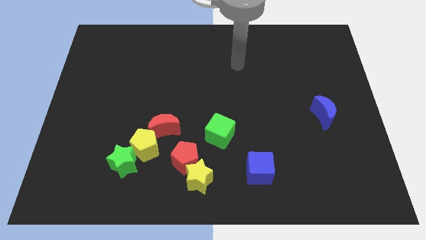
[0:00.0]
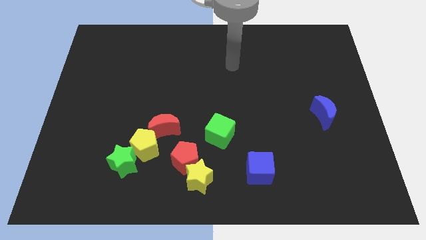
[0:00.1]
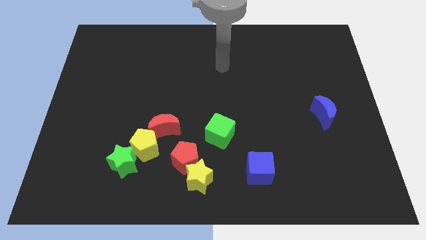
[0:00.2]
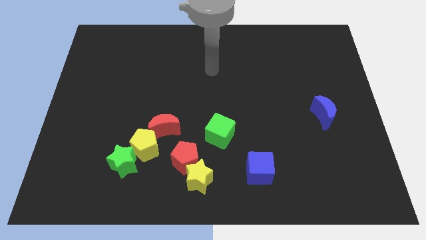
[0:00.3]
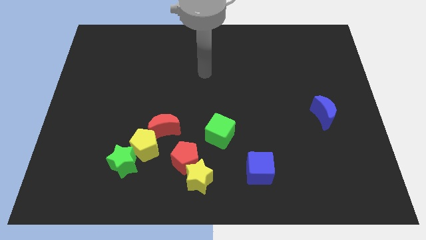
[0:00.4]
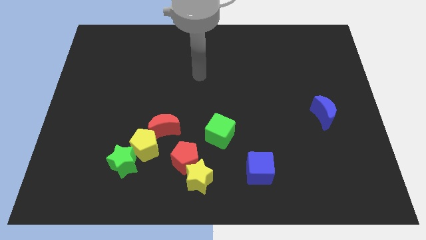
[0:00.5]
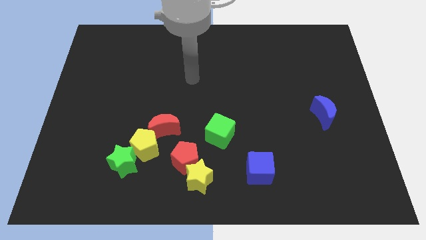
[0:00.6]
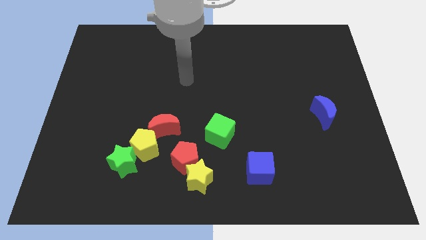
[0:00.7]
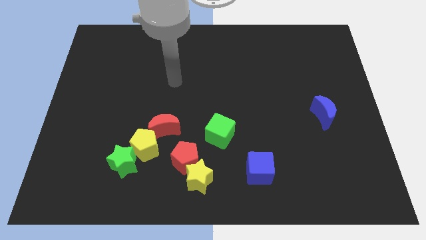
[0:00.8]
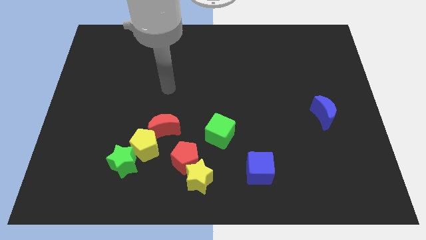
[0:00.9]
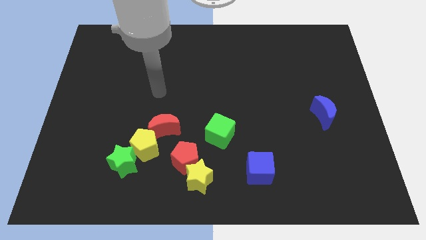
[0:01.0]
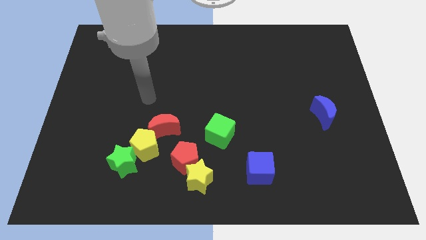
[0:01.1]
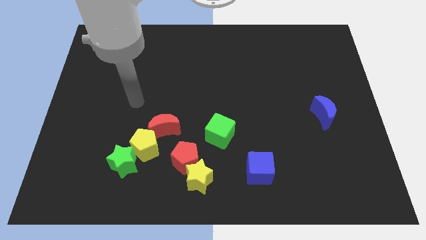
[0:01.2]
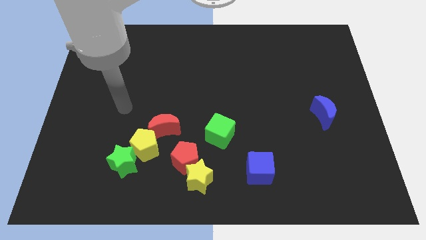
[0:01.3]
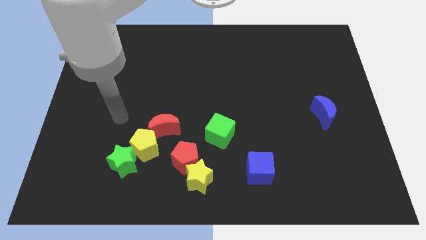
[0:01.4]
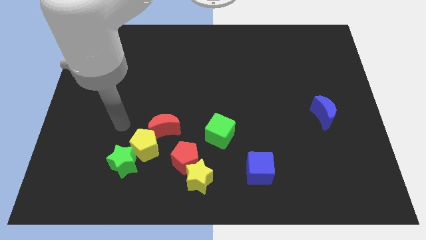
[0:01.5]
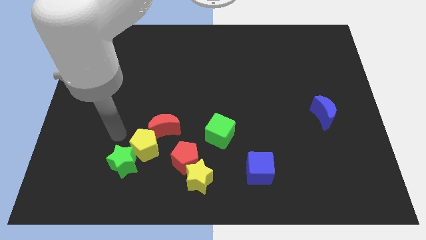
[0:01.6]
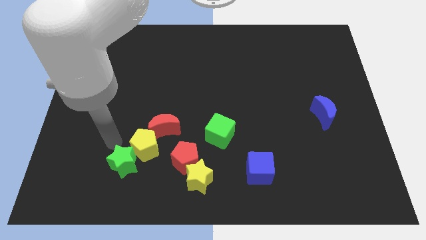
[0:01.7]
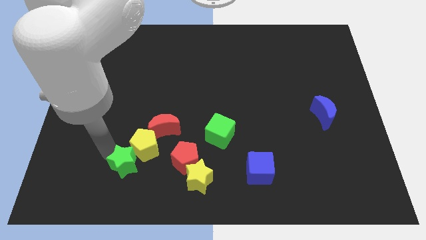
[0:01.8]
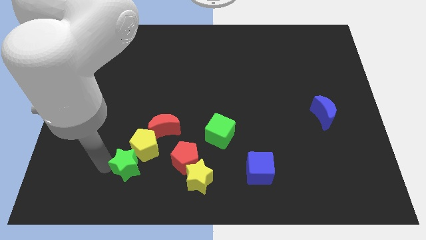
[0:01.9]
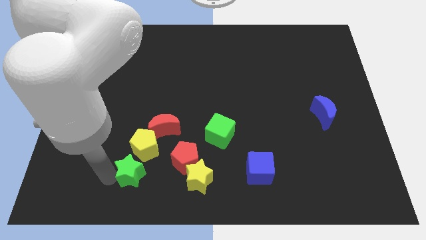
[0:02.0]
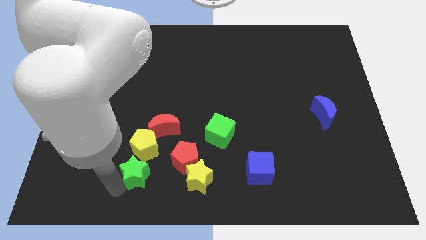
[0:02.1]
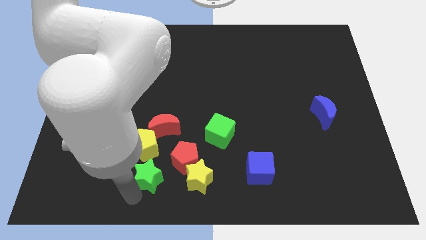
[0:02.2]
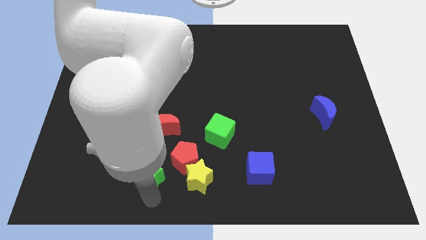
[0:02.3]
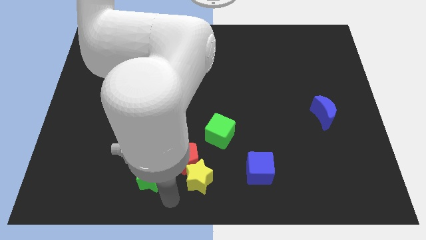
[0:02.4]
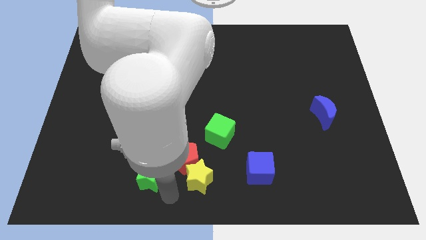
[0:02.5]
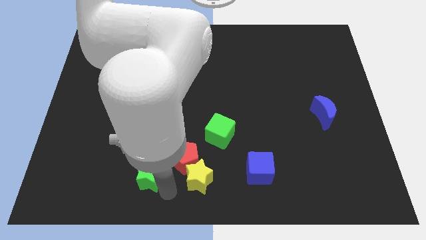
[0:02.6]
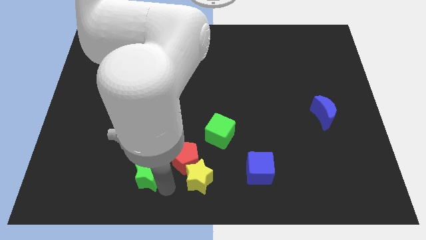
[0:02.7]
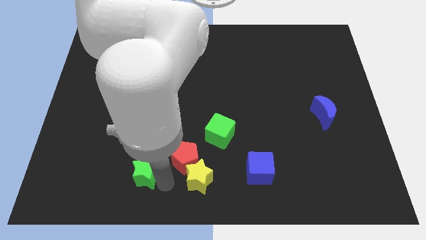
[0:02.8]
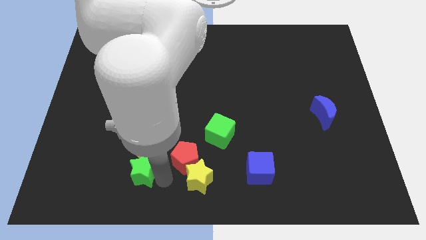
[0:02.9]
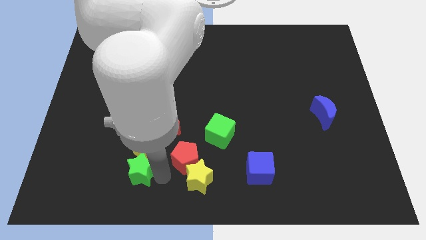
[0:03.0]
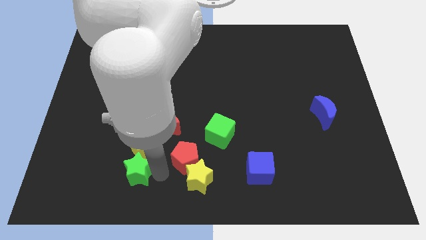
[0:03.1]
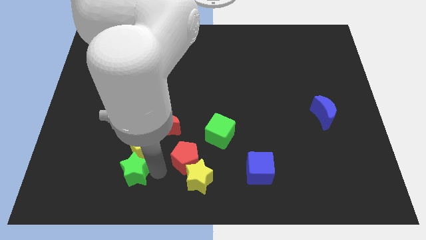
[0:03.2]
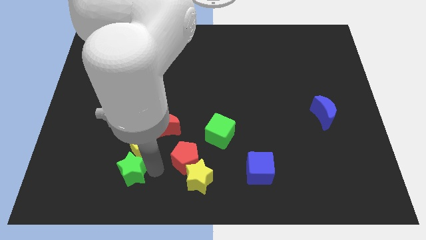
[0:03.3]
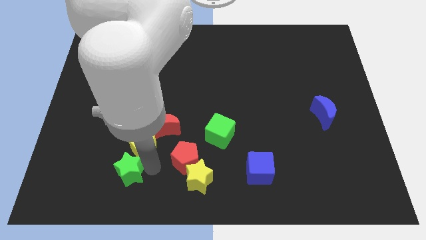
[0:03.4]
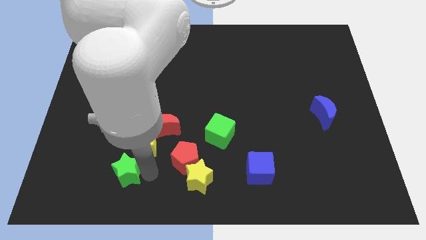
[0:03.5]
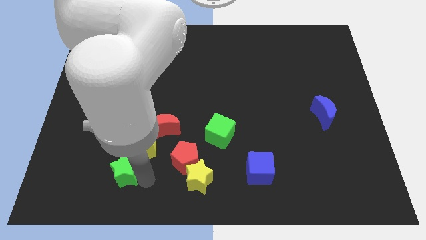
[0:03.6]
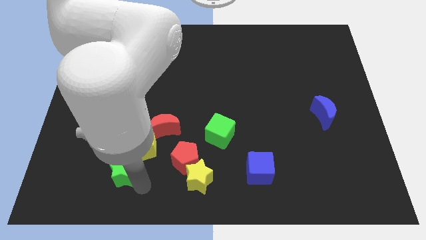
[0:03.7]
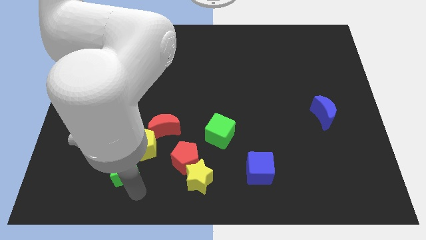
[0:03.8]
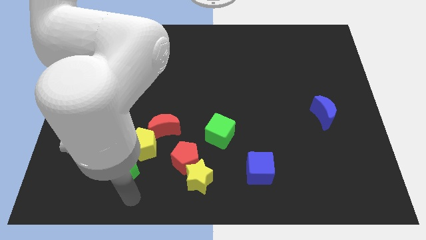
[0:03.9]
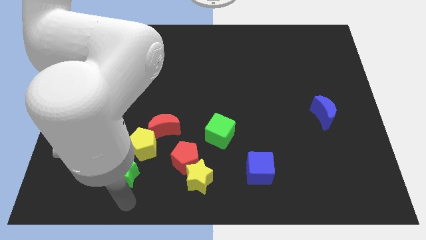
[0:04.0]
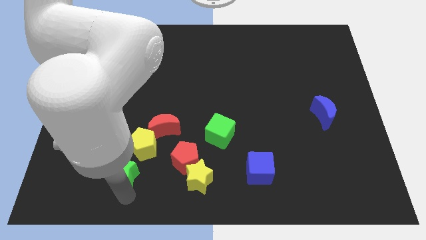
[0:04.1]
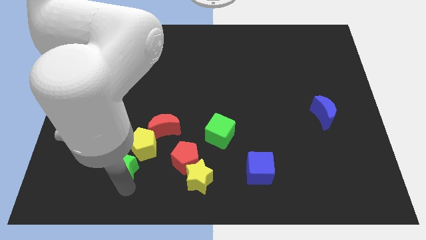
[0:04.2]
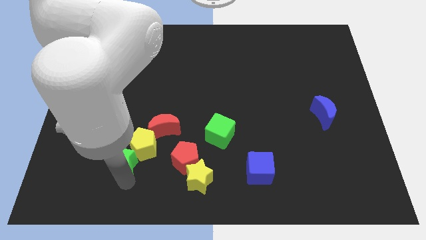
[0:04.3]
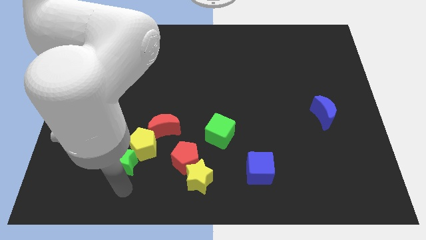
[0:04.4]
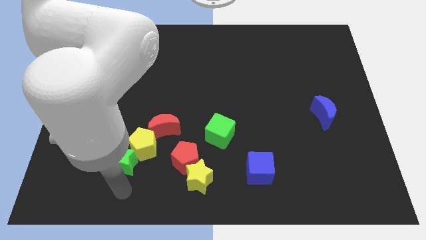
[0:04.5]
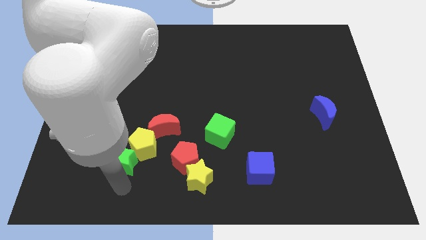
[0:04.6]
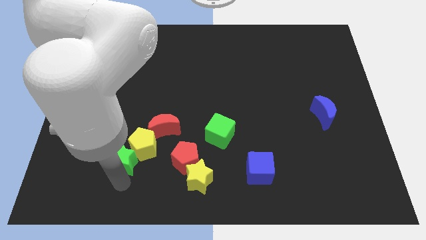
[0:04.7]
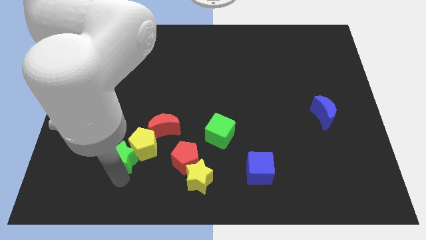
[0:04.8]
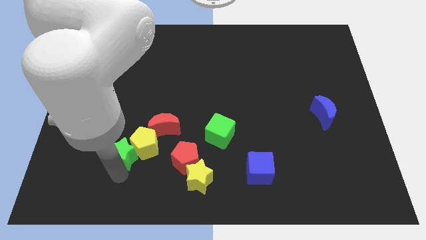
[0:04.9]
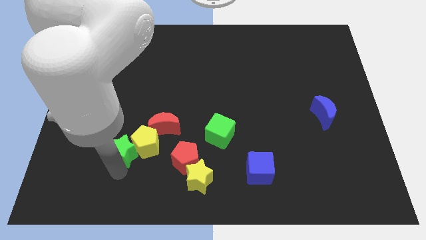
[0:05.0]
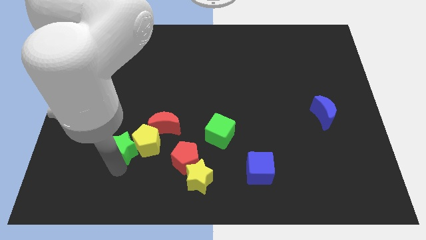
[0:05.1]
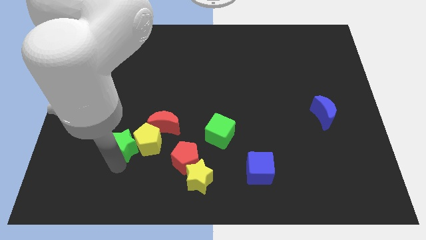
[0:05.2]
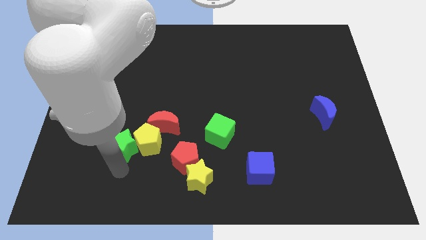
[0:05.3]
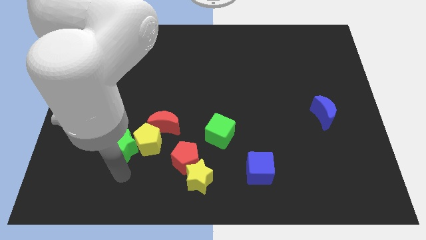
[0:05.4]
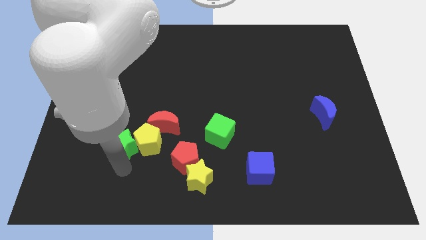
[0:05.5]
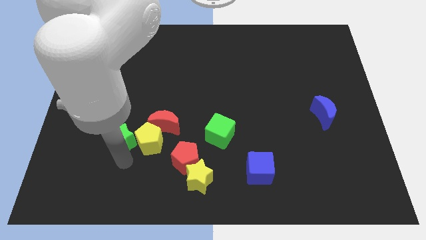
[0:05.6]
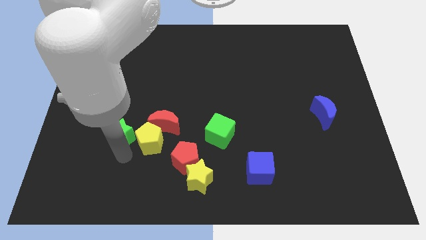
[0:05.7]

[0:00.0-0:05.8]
slightly push the green star up

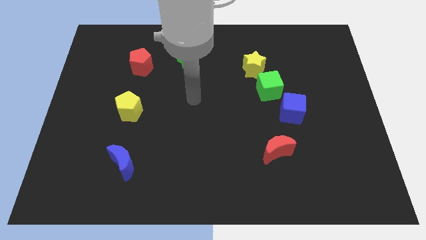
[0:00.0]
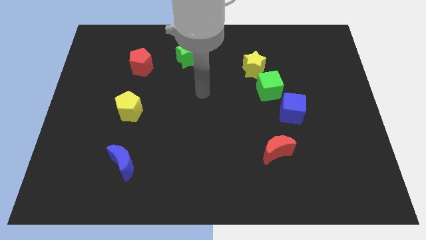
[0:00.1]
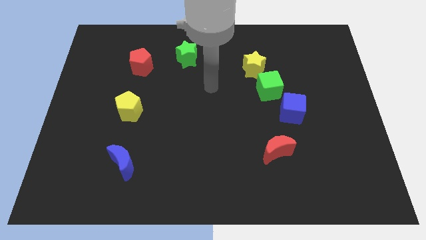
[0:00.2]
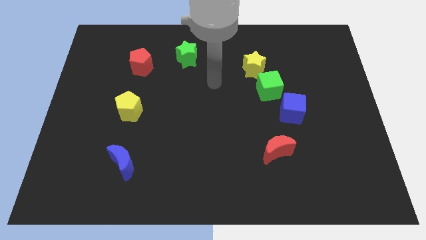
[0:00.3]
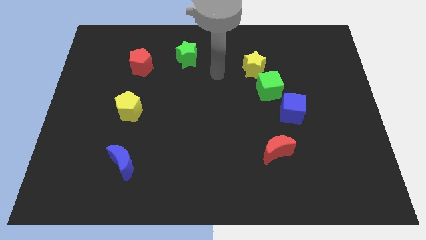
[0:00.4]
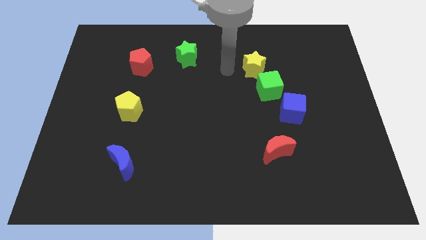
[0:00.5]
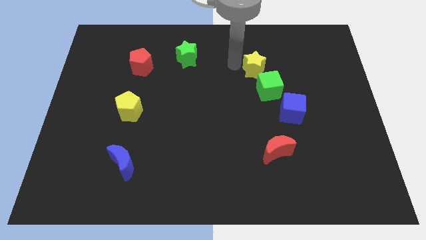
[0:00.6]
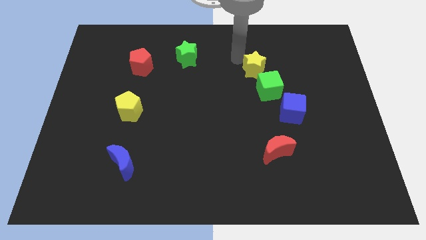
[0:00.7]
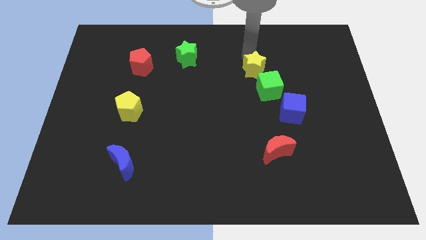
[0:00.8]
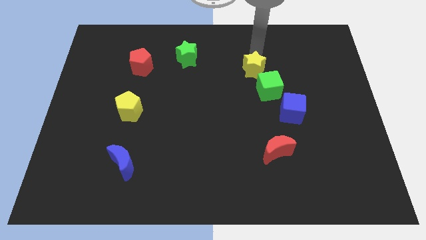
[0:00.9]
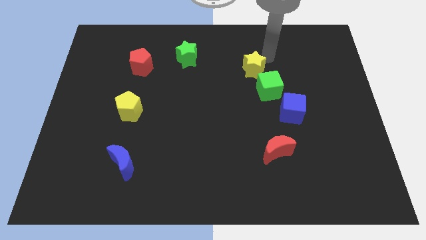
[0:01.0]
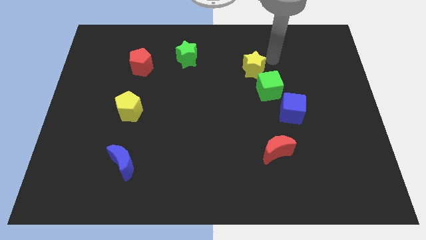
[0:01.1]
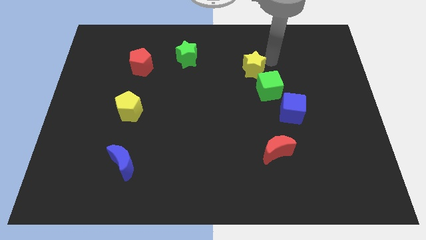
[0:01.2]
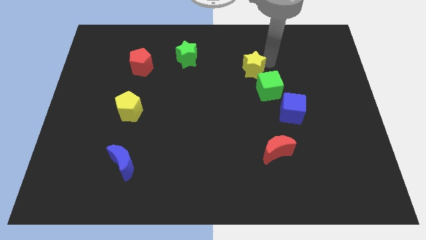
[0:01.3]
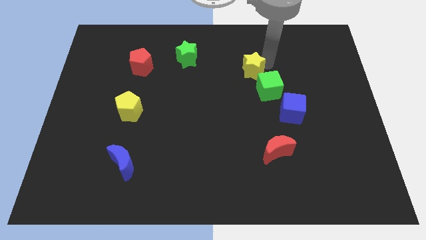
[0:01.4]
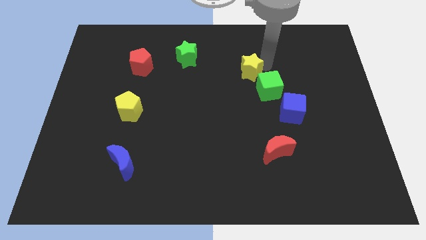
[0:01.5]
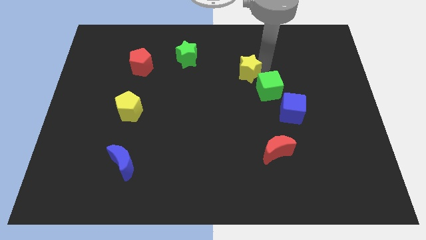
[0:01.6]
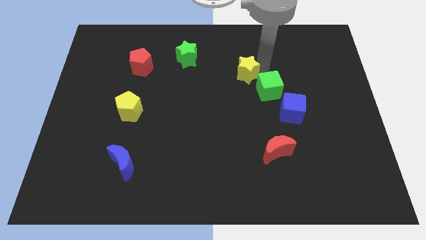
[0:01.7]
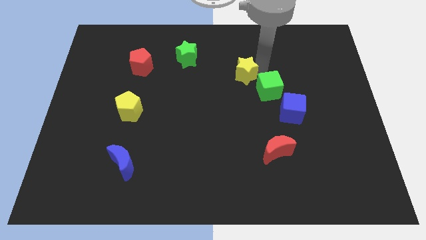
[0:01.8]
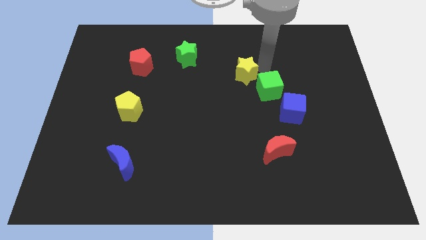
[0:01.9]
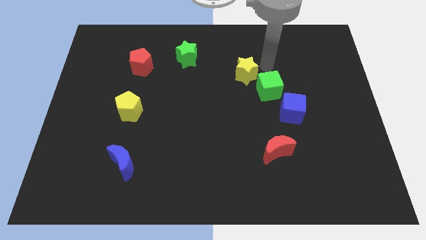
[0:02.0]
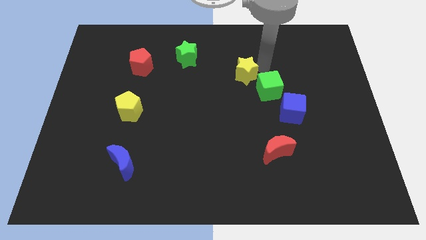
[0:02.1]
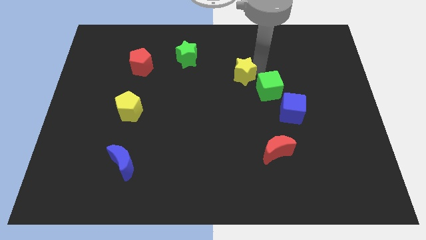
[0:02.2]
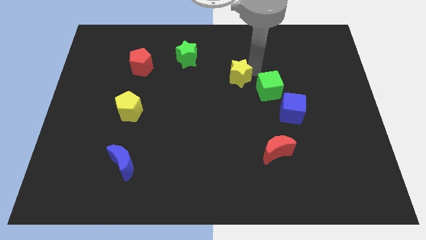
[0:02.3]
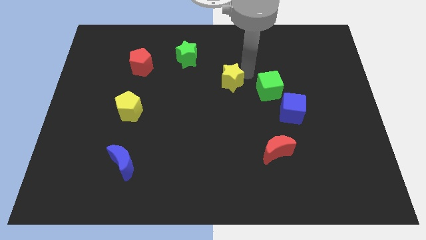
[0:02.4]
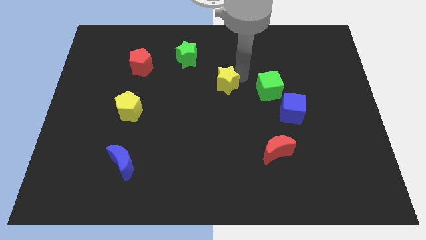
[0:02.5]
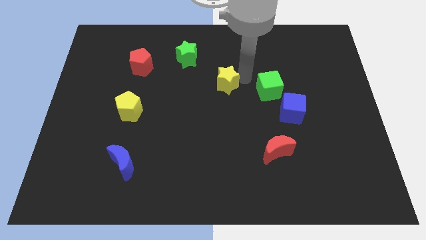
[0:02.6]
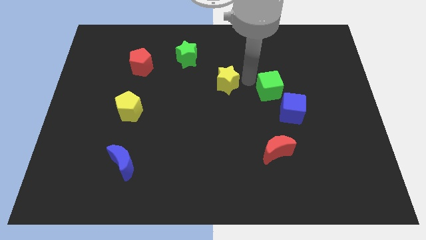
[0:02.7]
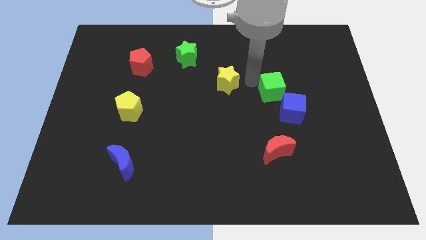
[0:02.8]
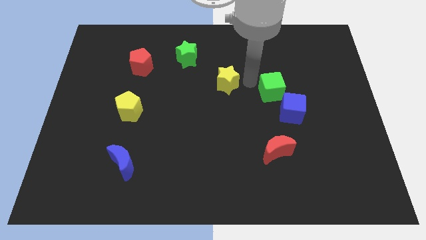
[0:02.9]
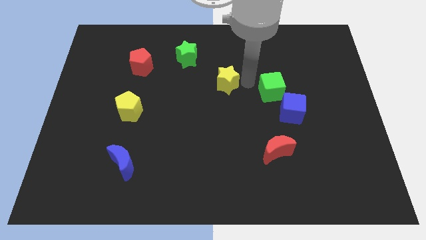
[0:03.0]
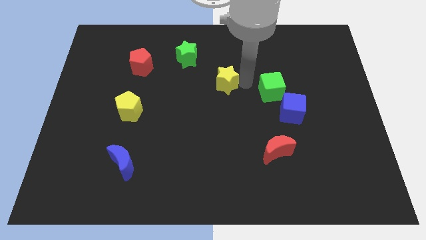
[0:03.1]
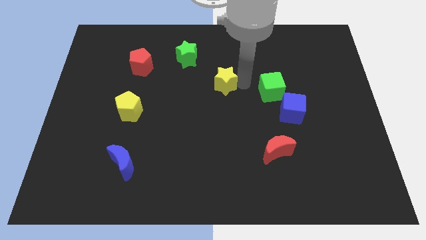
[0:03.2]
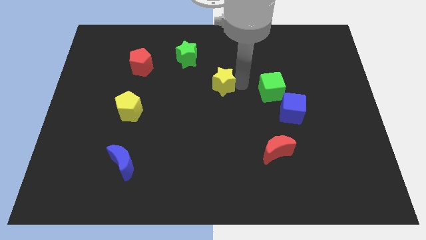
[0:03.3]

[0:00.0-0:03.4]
slightly slide the yellow star to the left
